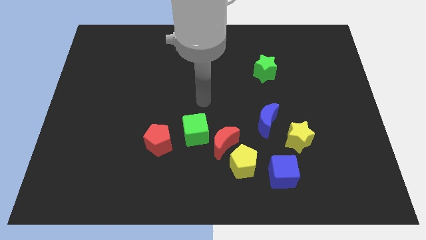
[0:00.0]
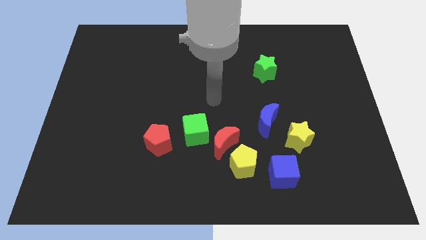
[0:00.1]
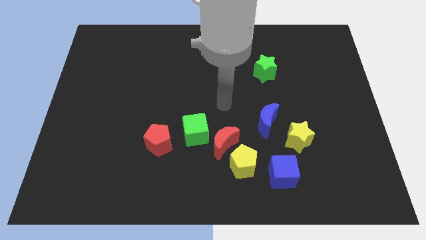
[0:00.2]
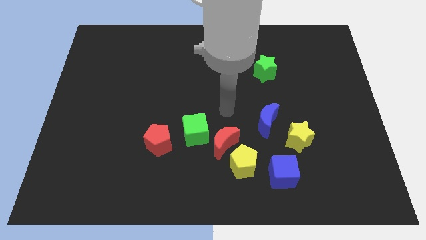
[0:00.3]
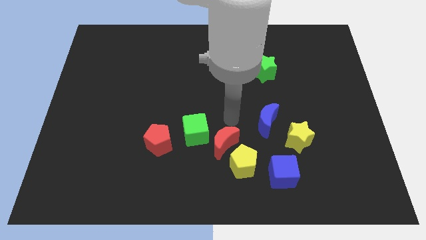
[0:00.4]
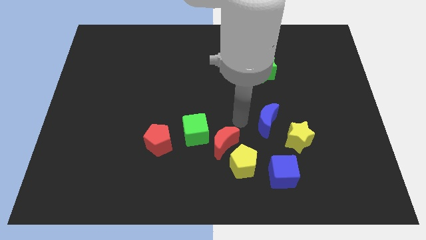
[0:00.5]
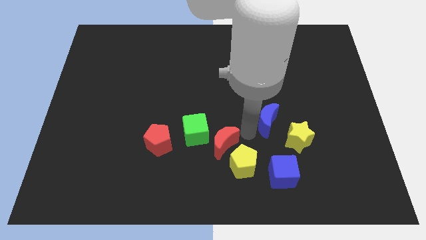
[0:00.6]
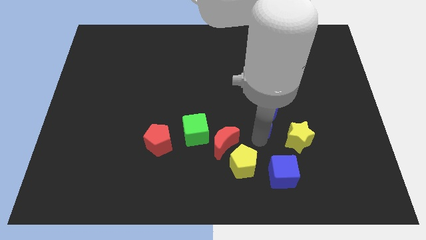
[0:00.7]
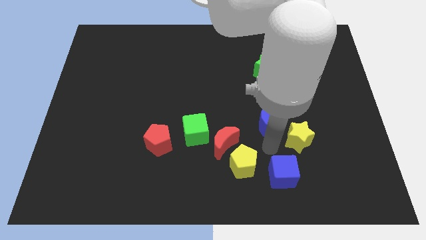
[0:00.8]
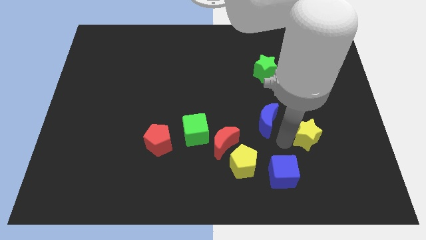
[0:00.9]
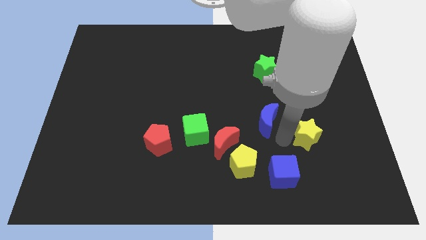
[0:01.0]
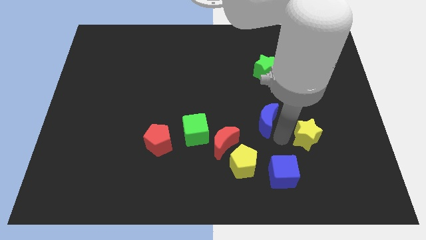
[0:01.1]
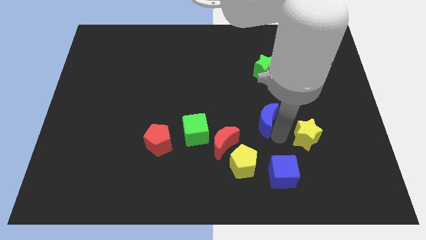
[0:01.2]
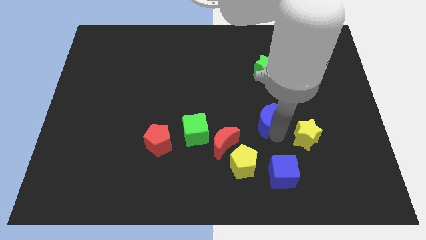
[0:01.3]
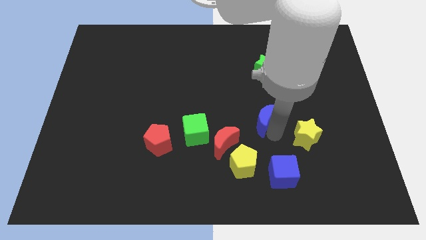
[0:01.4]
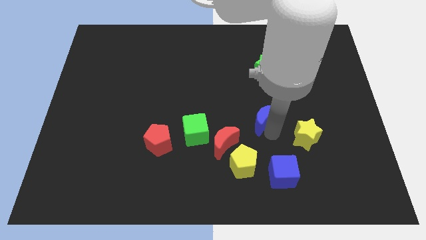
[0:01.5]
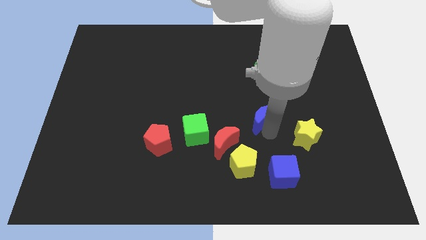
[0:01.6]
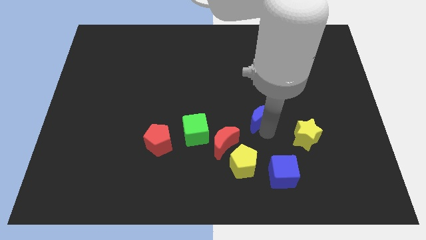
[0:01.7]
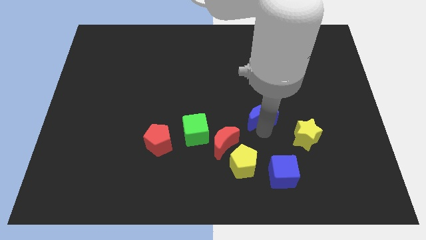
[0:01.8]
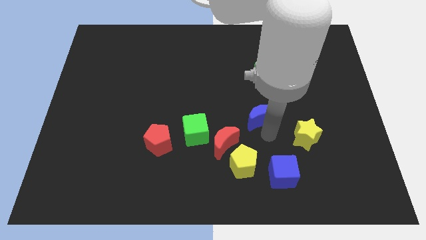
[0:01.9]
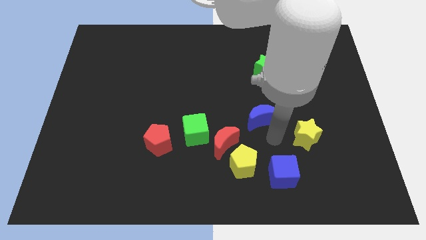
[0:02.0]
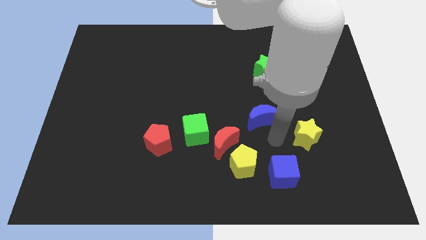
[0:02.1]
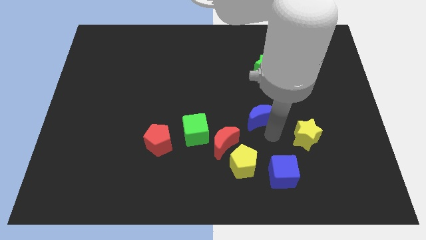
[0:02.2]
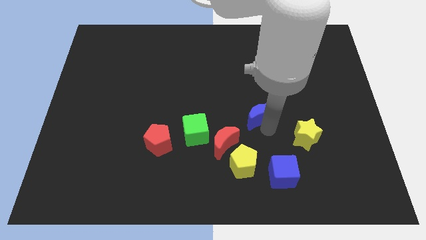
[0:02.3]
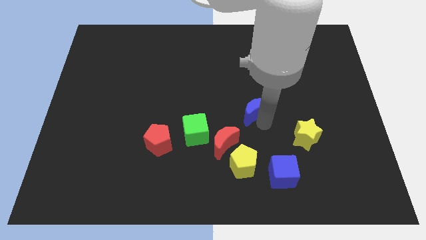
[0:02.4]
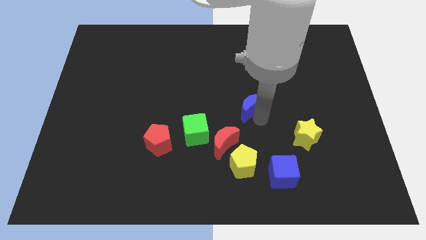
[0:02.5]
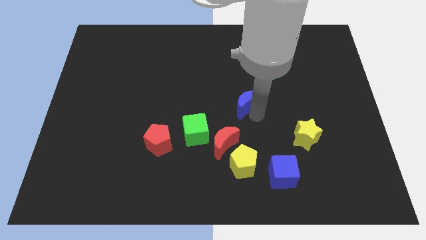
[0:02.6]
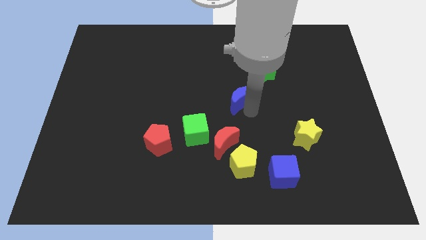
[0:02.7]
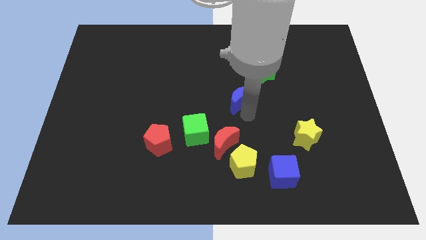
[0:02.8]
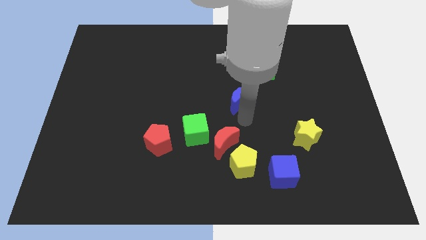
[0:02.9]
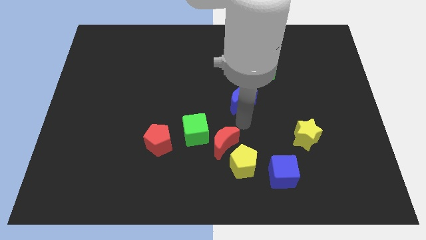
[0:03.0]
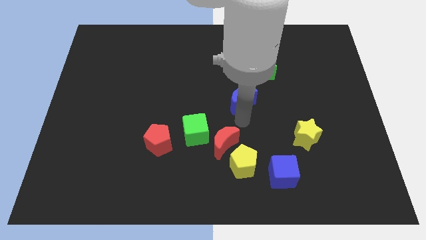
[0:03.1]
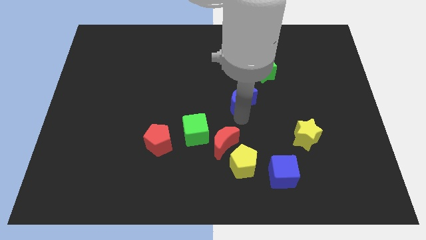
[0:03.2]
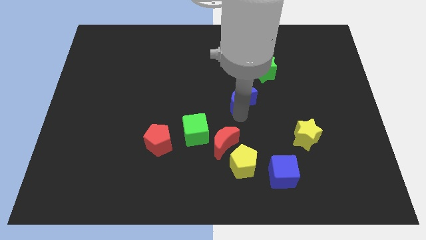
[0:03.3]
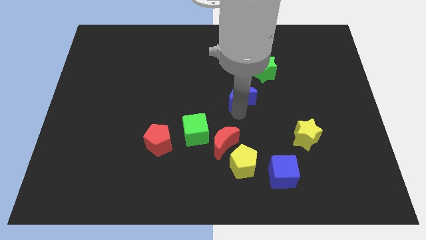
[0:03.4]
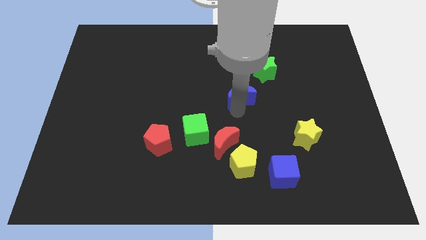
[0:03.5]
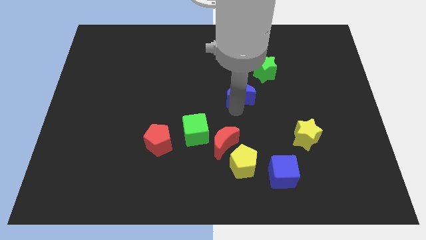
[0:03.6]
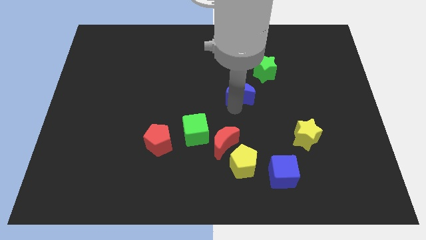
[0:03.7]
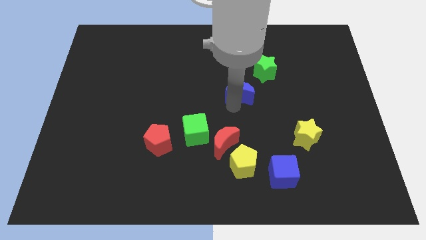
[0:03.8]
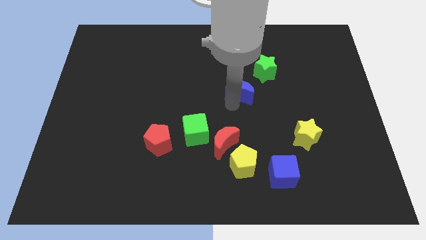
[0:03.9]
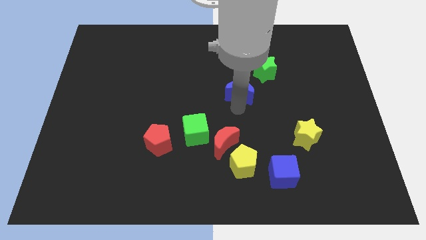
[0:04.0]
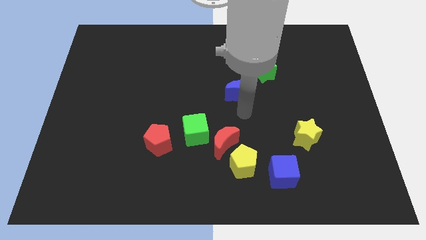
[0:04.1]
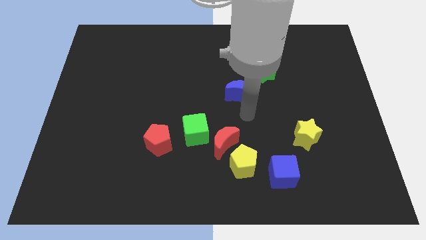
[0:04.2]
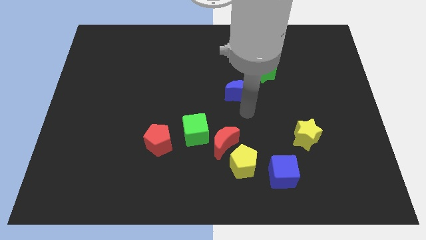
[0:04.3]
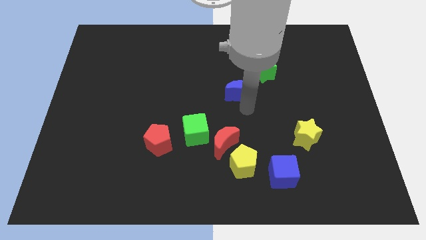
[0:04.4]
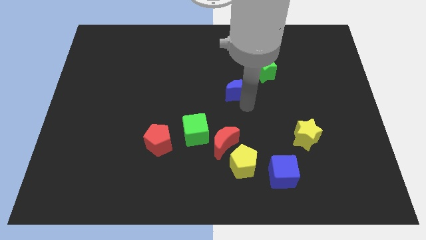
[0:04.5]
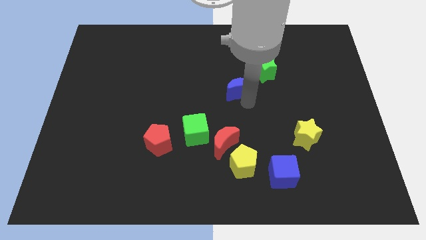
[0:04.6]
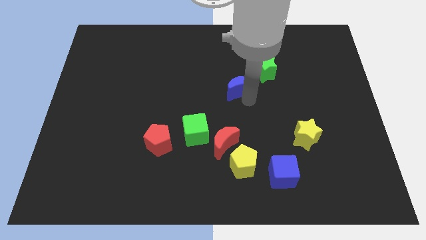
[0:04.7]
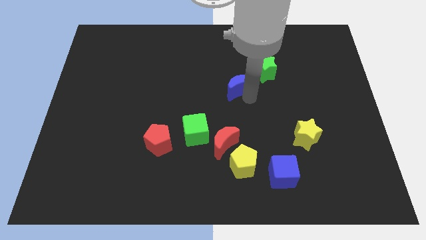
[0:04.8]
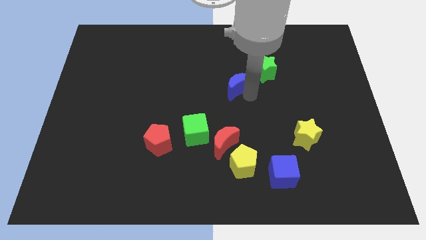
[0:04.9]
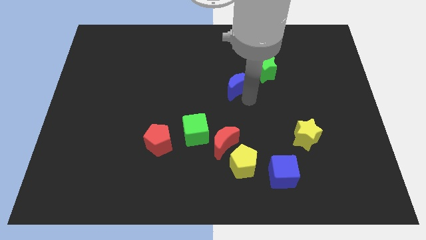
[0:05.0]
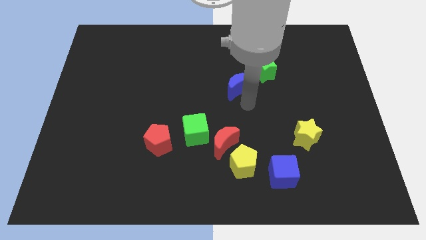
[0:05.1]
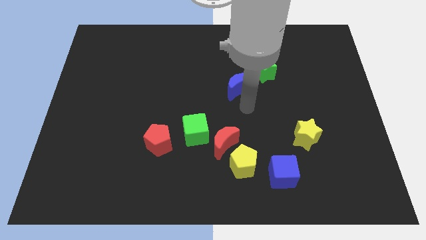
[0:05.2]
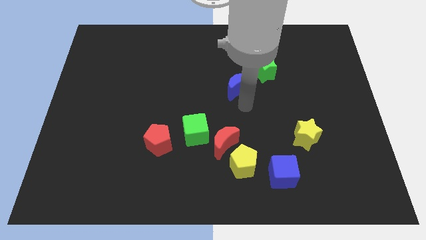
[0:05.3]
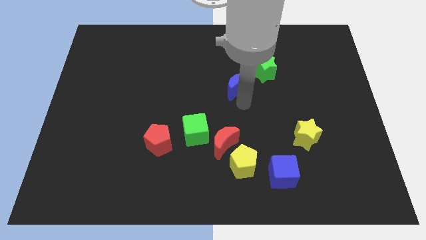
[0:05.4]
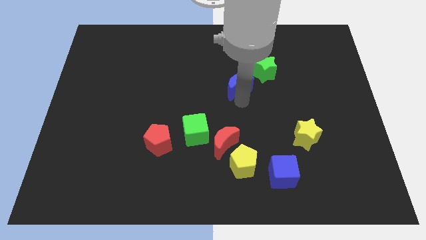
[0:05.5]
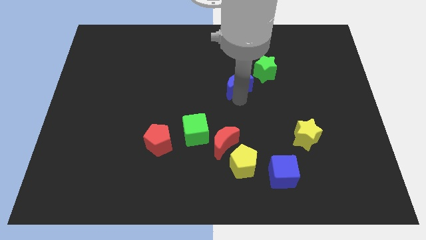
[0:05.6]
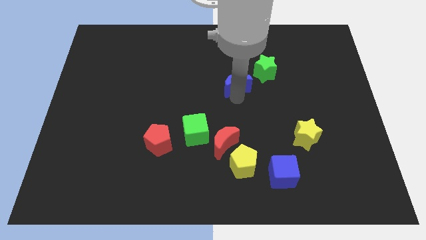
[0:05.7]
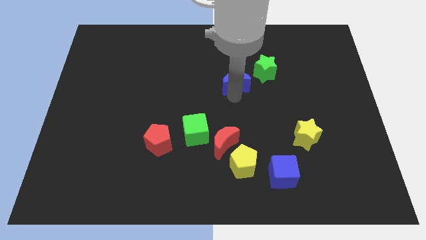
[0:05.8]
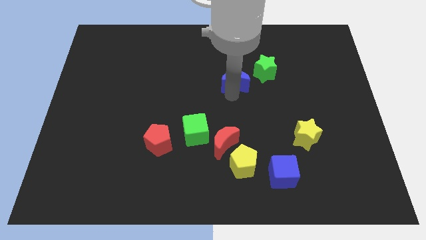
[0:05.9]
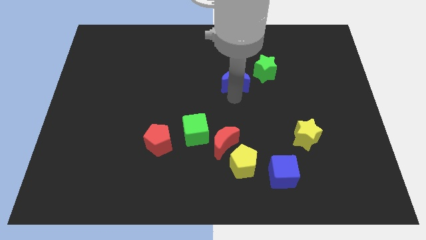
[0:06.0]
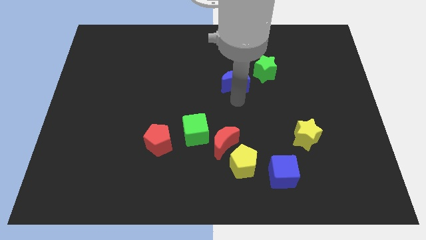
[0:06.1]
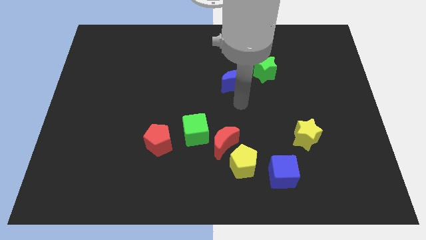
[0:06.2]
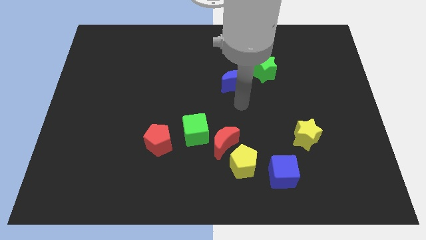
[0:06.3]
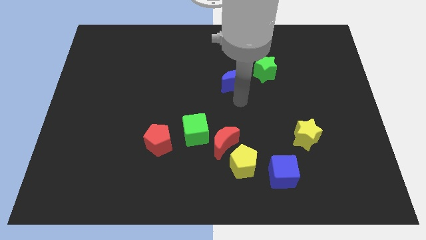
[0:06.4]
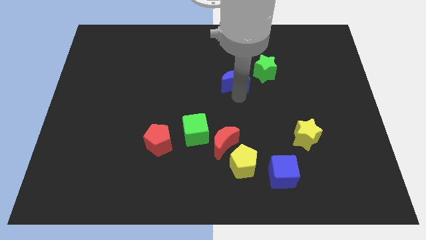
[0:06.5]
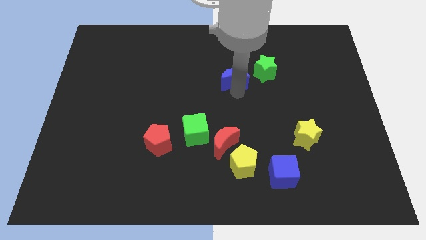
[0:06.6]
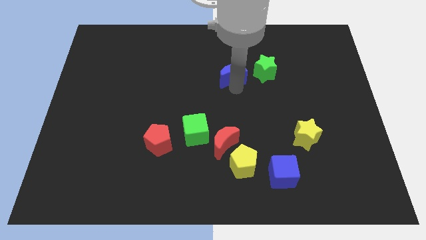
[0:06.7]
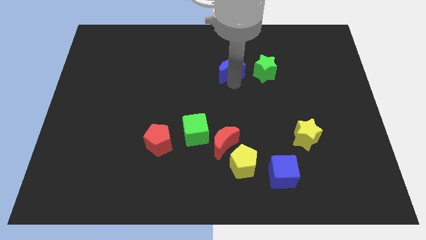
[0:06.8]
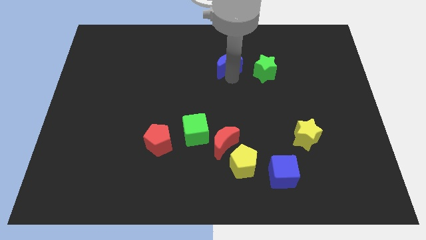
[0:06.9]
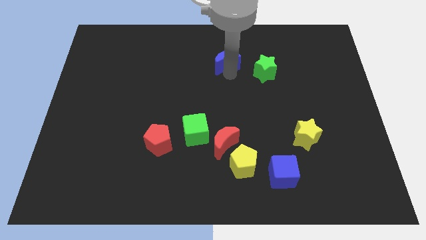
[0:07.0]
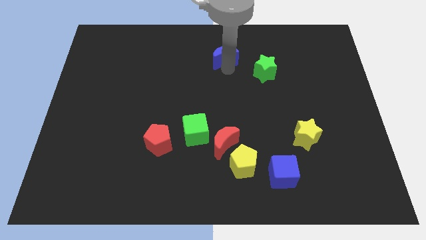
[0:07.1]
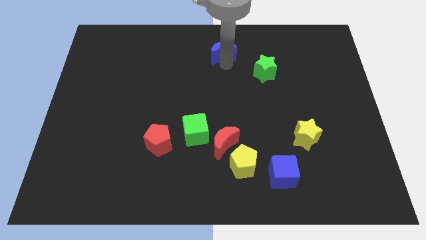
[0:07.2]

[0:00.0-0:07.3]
put the blue moon to the top side
